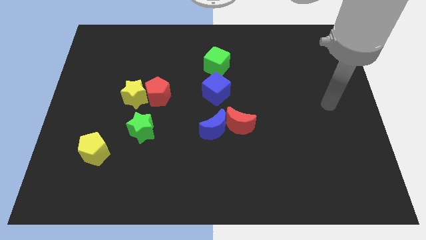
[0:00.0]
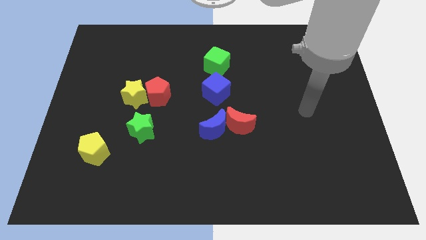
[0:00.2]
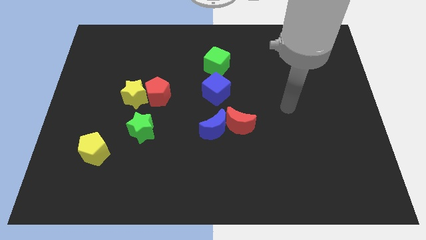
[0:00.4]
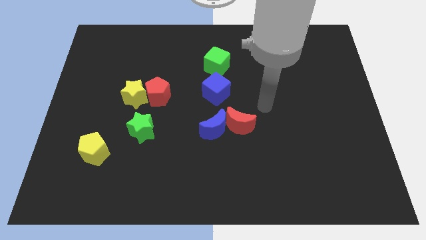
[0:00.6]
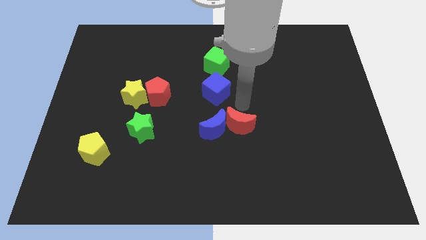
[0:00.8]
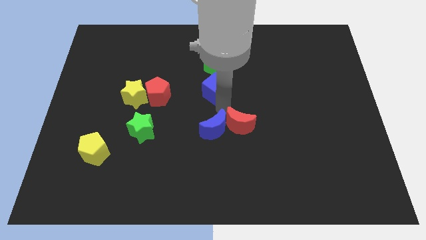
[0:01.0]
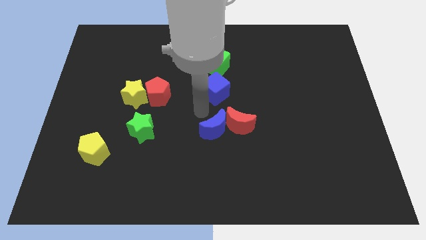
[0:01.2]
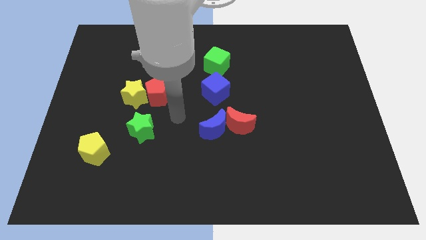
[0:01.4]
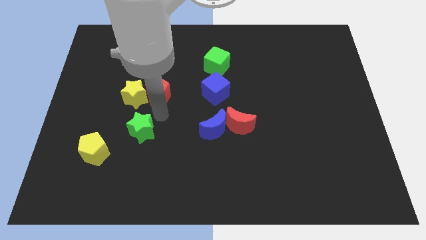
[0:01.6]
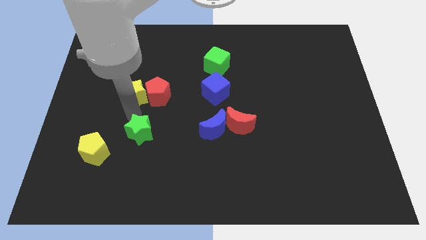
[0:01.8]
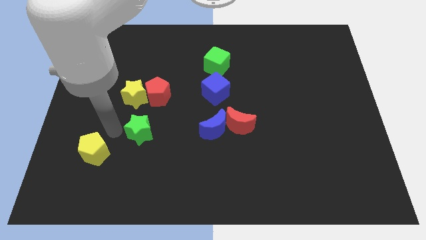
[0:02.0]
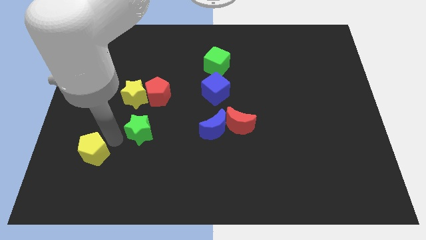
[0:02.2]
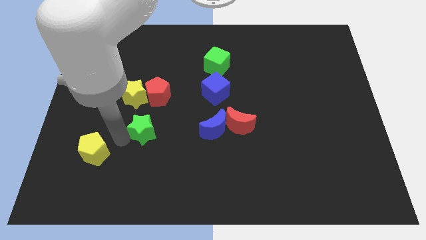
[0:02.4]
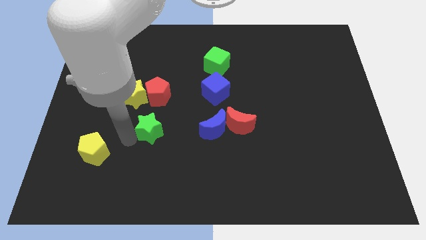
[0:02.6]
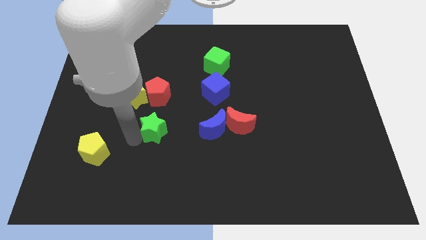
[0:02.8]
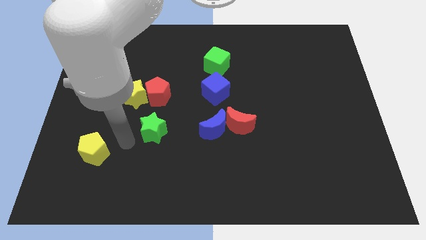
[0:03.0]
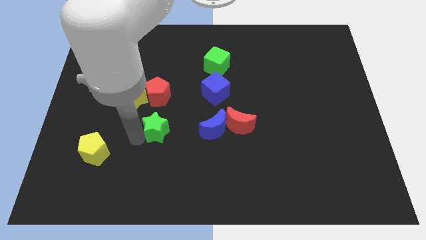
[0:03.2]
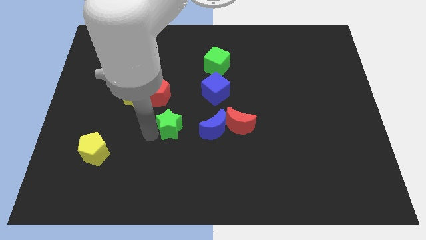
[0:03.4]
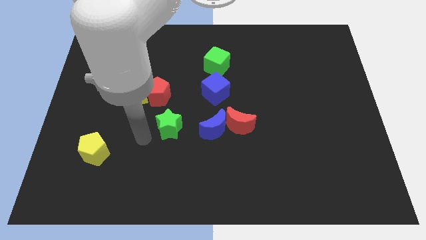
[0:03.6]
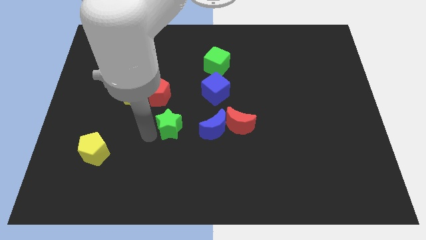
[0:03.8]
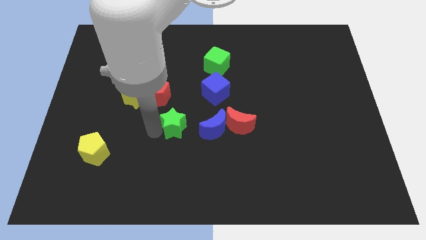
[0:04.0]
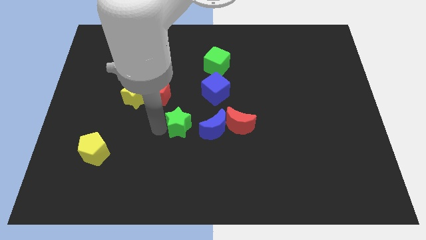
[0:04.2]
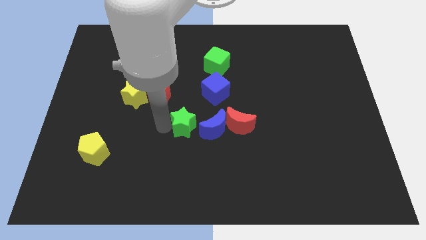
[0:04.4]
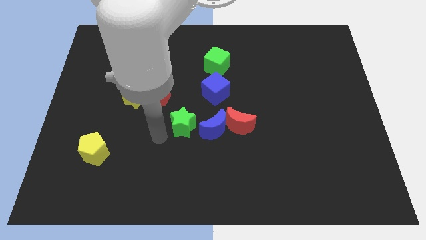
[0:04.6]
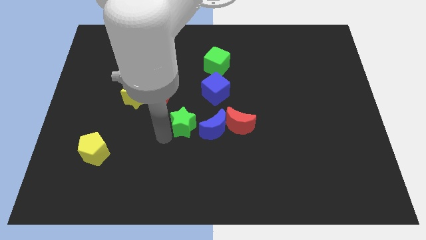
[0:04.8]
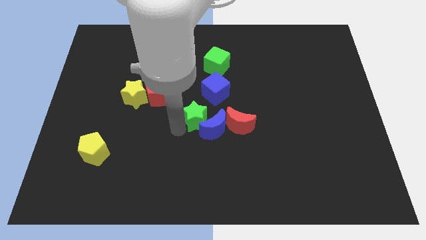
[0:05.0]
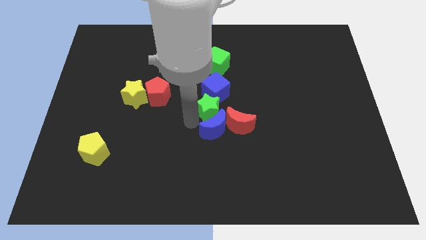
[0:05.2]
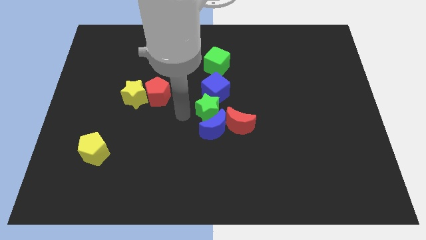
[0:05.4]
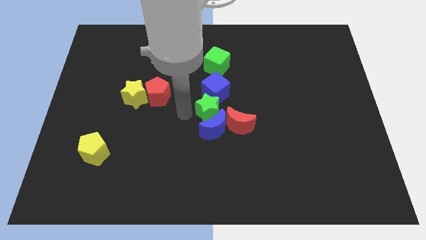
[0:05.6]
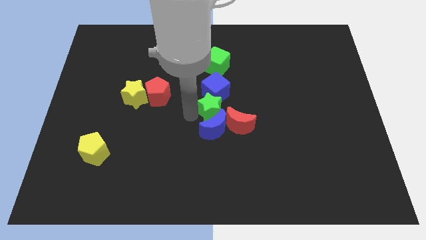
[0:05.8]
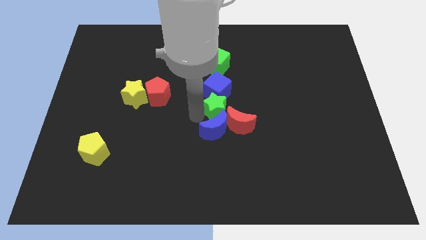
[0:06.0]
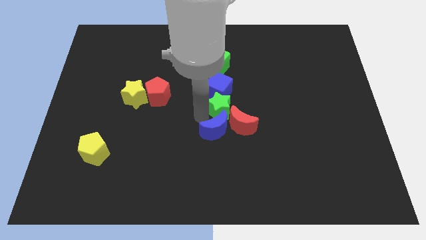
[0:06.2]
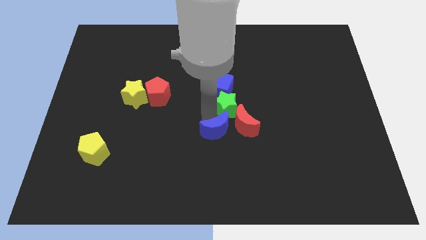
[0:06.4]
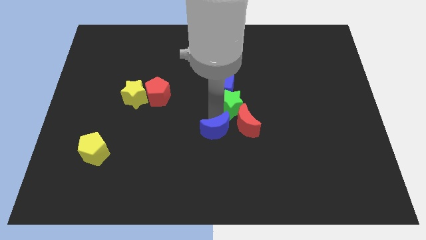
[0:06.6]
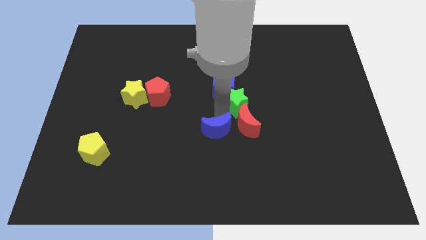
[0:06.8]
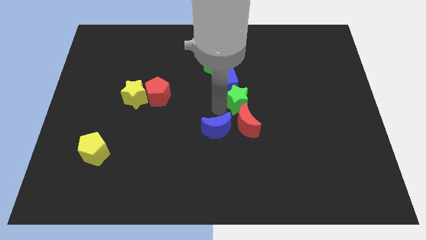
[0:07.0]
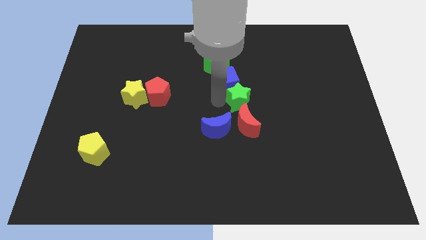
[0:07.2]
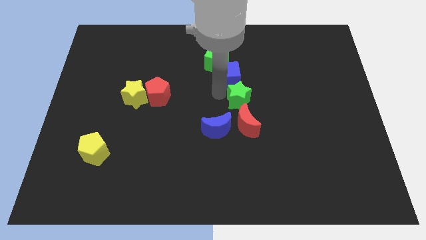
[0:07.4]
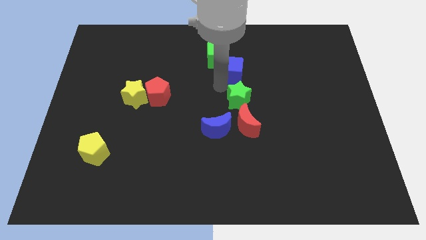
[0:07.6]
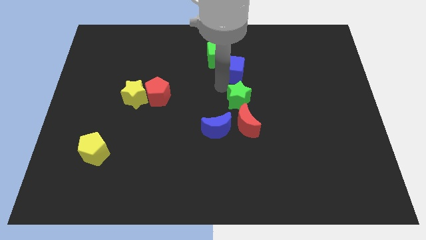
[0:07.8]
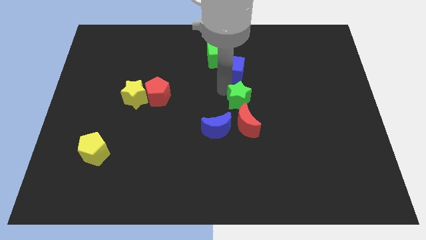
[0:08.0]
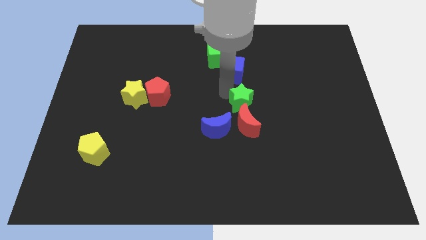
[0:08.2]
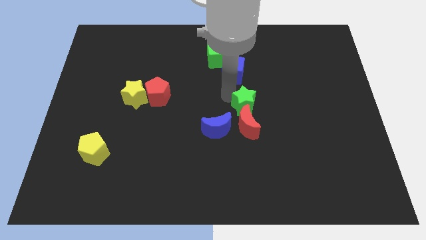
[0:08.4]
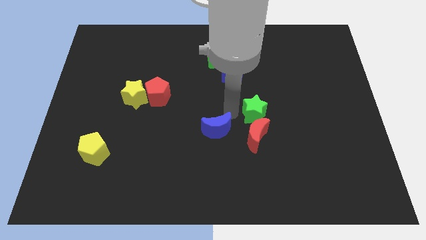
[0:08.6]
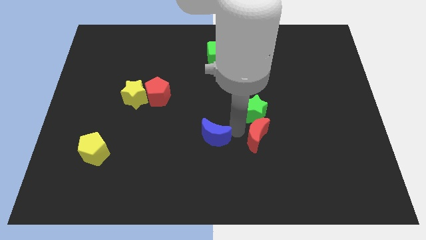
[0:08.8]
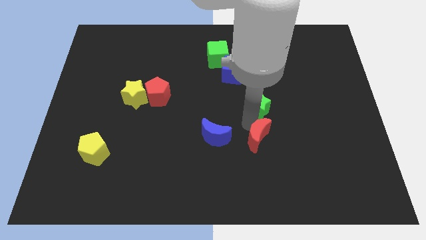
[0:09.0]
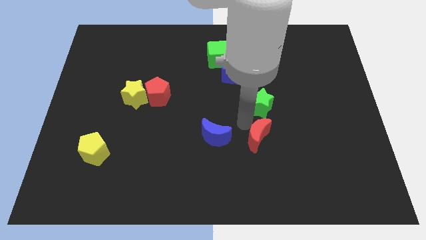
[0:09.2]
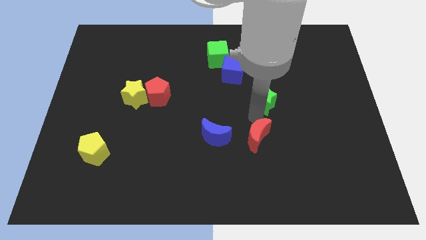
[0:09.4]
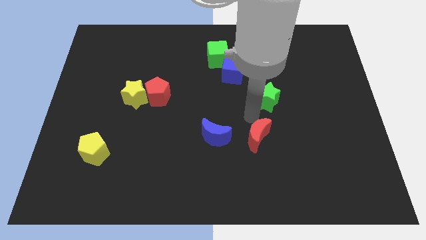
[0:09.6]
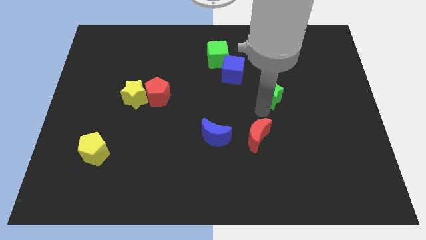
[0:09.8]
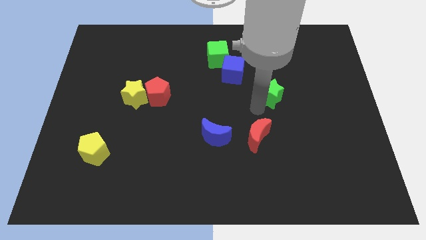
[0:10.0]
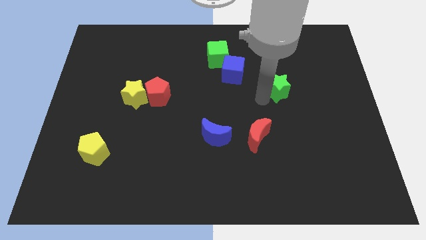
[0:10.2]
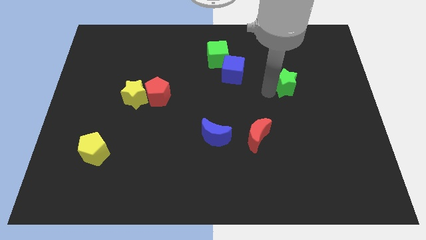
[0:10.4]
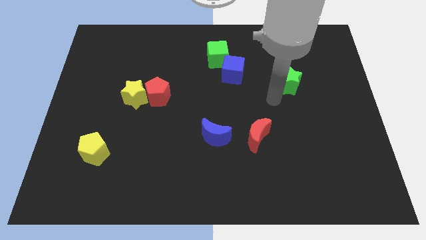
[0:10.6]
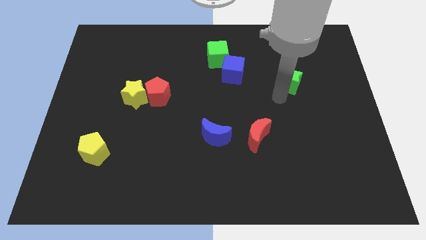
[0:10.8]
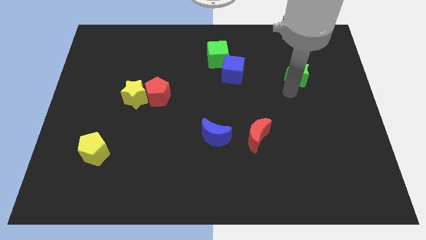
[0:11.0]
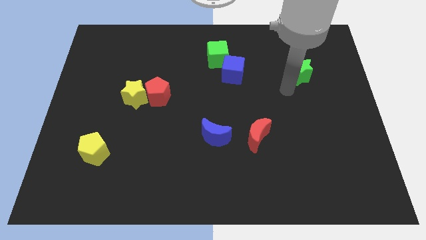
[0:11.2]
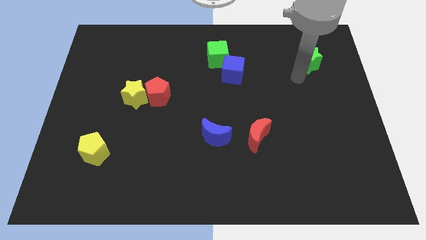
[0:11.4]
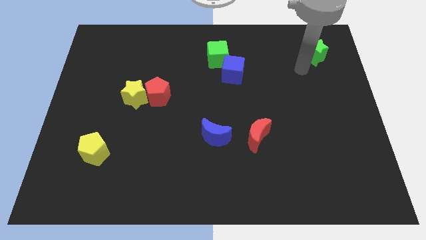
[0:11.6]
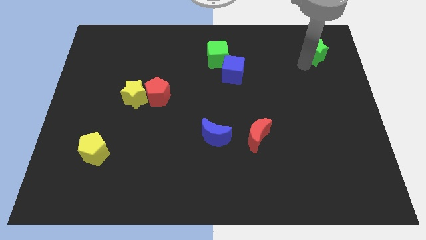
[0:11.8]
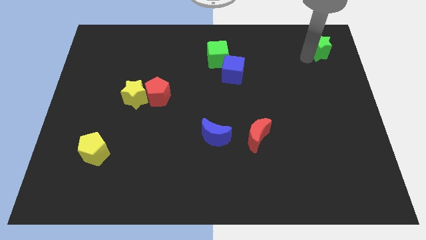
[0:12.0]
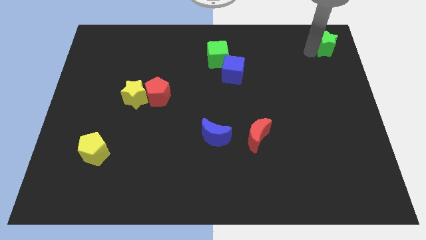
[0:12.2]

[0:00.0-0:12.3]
slide the green star to the top right of the board
